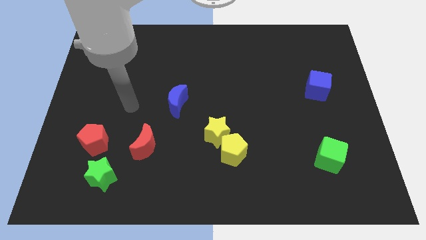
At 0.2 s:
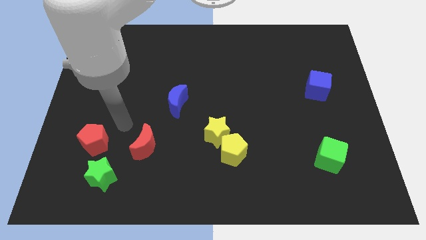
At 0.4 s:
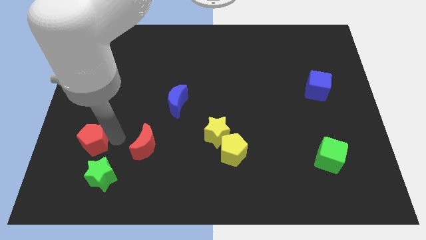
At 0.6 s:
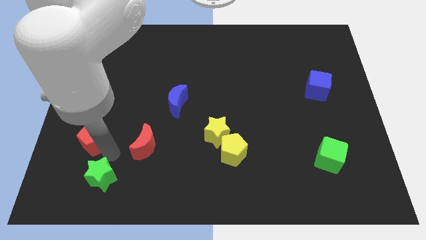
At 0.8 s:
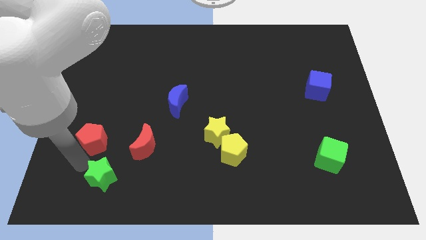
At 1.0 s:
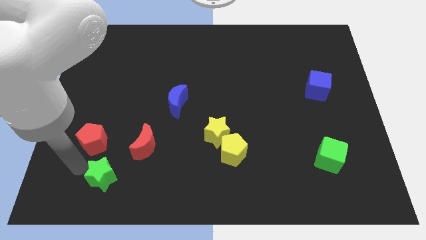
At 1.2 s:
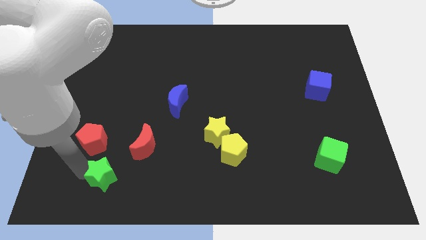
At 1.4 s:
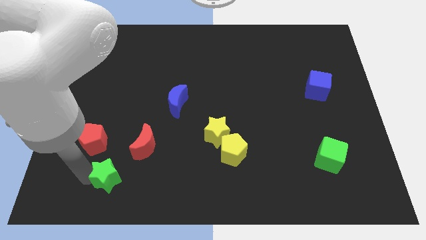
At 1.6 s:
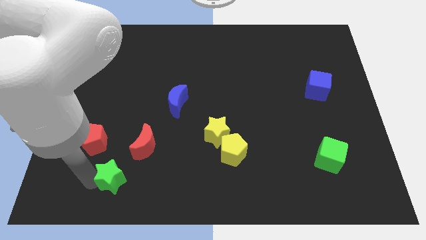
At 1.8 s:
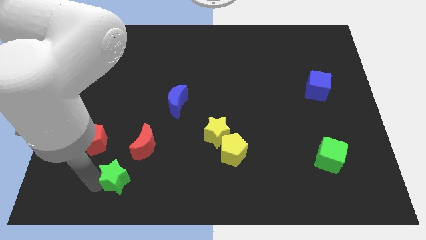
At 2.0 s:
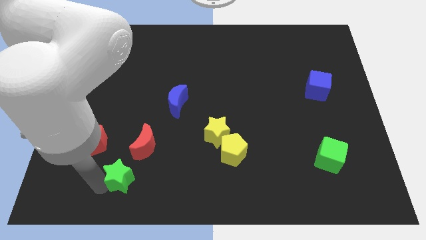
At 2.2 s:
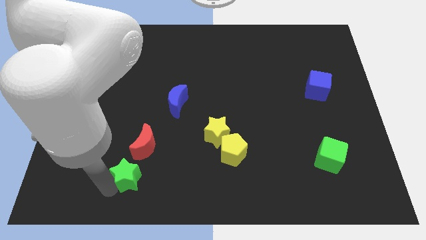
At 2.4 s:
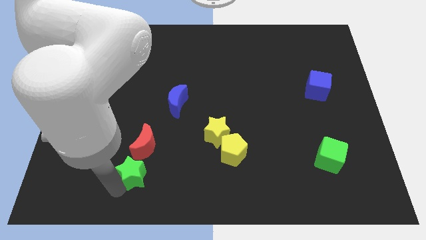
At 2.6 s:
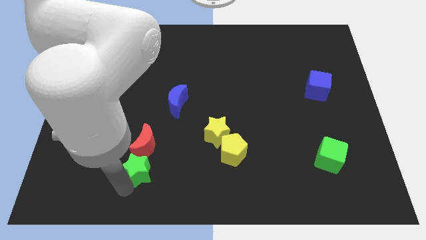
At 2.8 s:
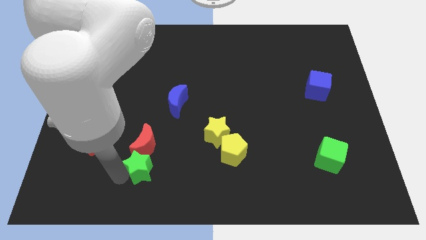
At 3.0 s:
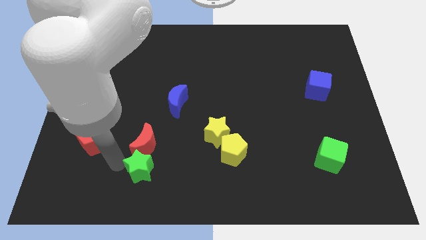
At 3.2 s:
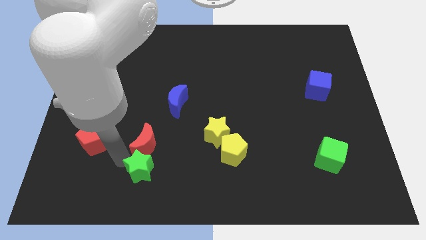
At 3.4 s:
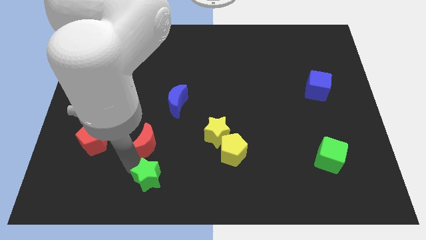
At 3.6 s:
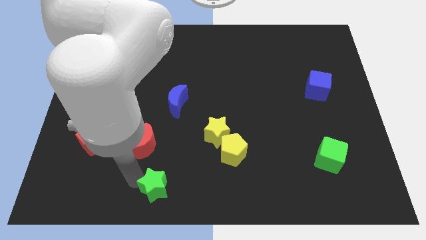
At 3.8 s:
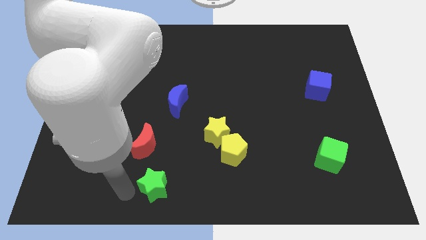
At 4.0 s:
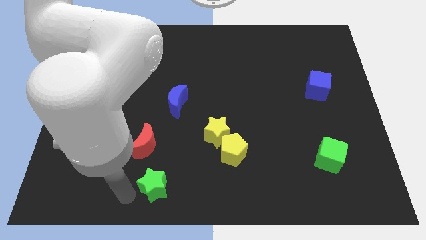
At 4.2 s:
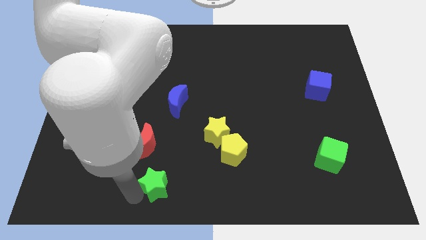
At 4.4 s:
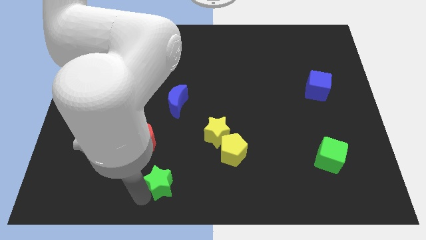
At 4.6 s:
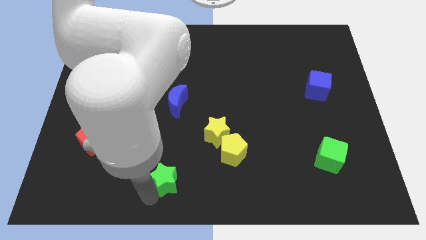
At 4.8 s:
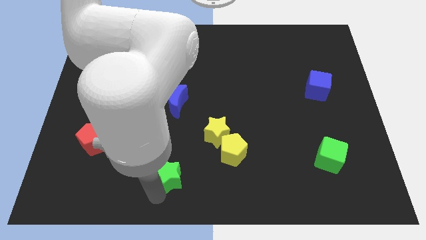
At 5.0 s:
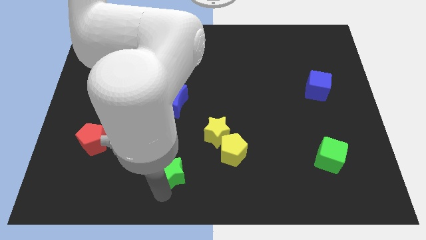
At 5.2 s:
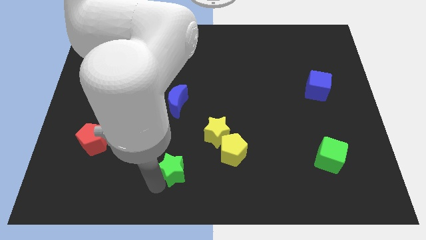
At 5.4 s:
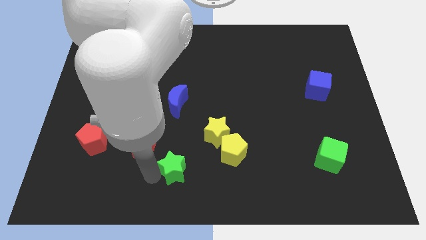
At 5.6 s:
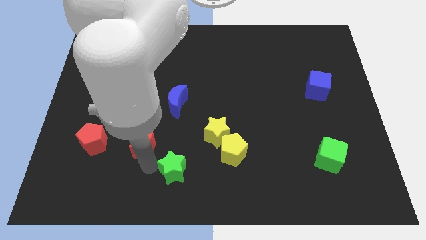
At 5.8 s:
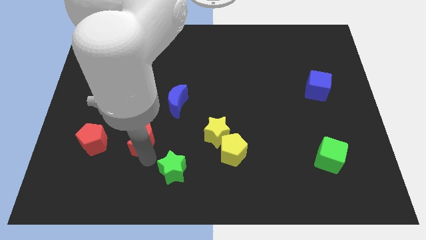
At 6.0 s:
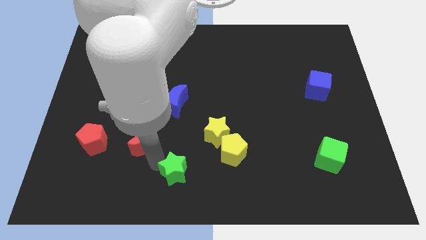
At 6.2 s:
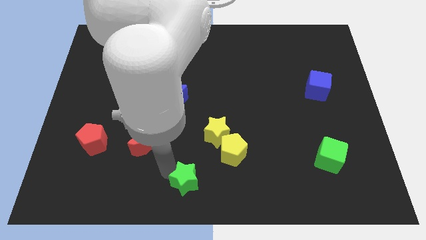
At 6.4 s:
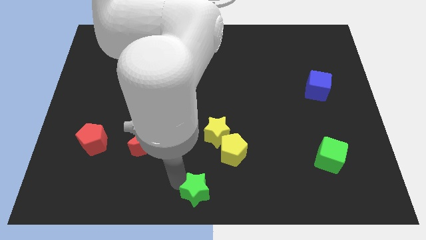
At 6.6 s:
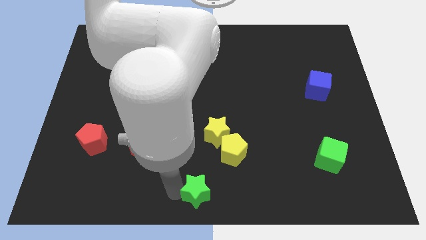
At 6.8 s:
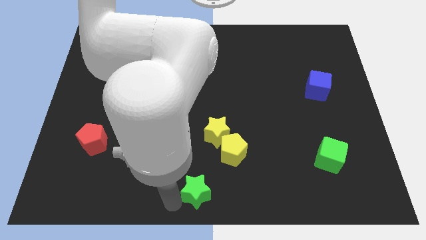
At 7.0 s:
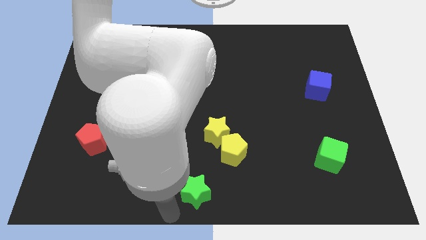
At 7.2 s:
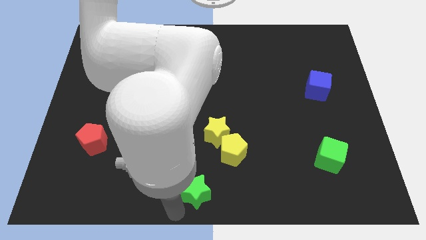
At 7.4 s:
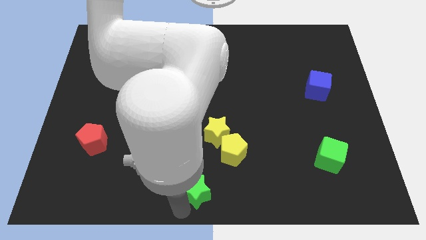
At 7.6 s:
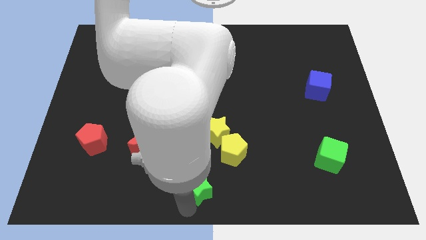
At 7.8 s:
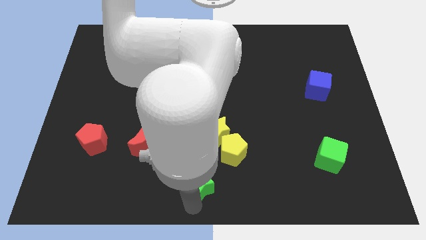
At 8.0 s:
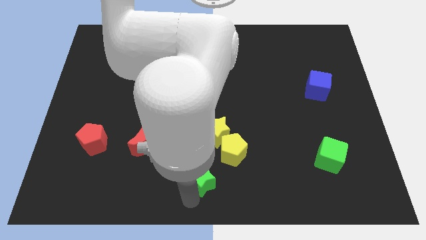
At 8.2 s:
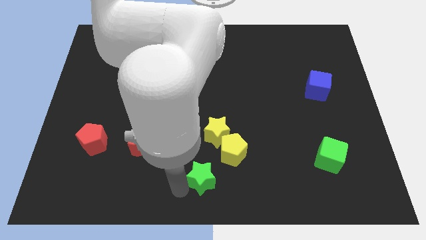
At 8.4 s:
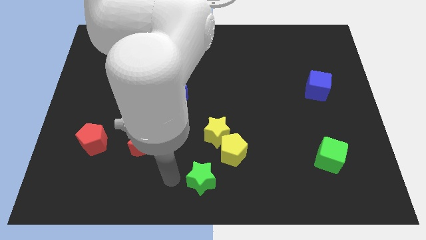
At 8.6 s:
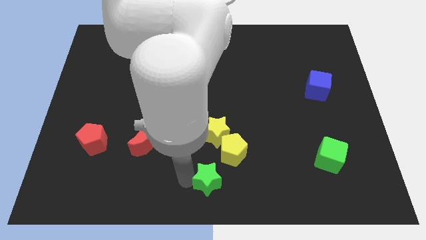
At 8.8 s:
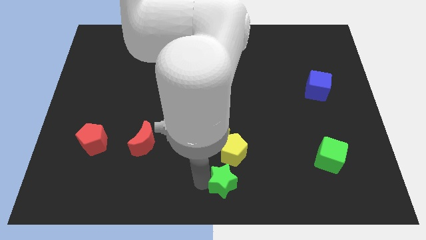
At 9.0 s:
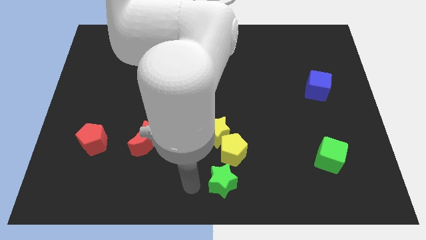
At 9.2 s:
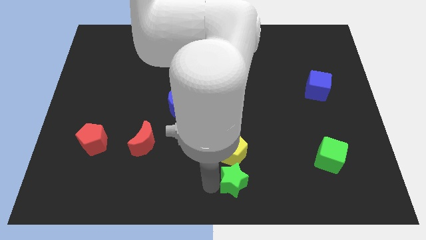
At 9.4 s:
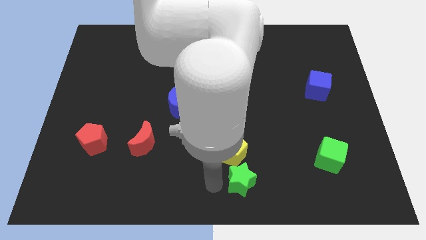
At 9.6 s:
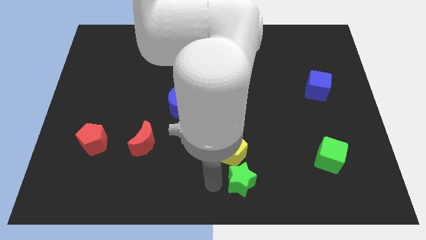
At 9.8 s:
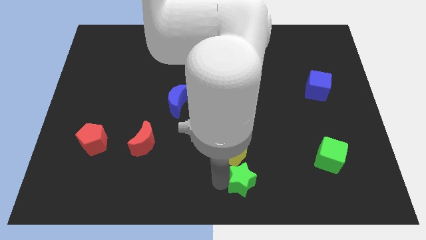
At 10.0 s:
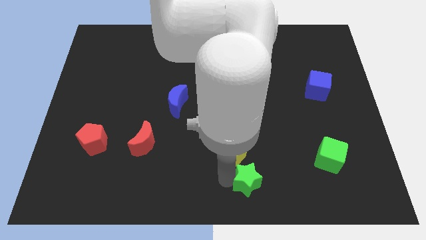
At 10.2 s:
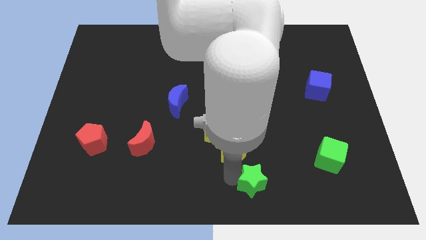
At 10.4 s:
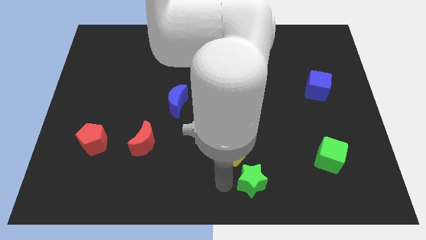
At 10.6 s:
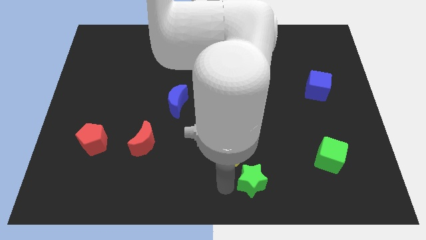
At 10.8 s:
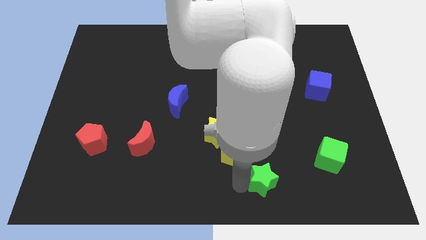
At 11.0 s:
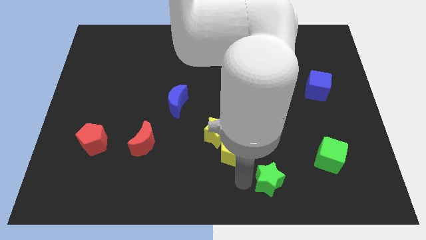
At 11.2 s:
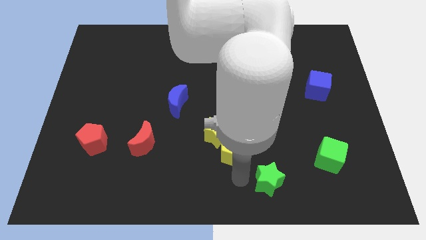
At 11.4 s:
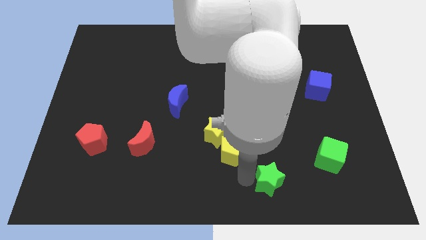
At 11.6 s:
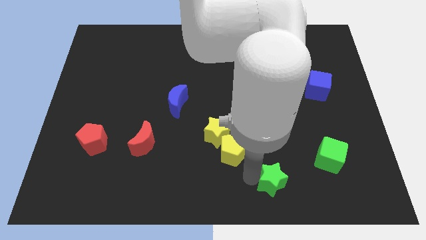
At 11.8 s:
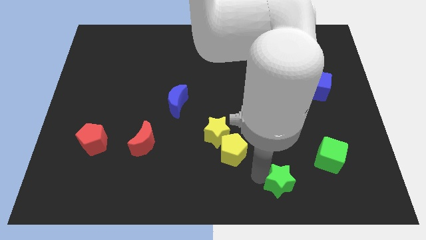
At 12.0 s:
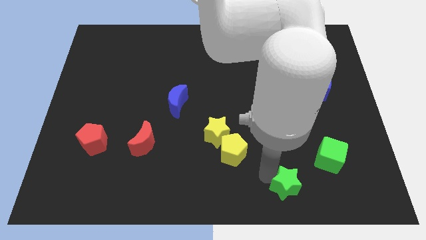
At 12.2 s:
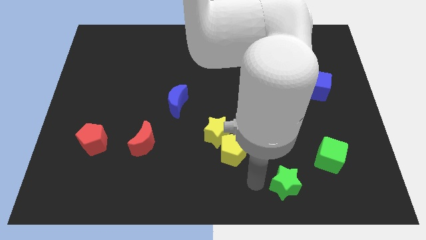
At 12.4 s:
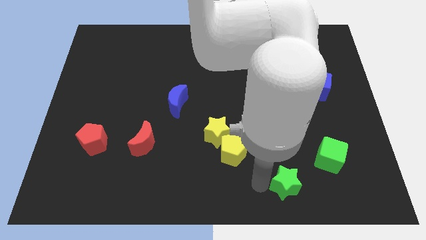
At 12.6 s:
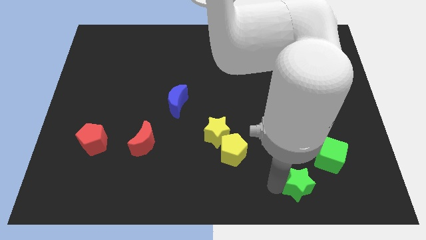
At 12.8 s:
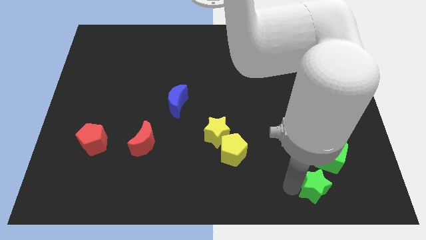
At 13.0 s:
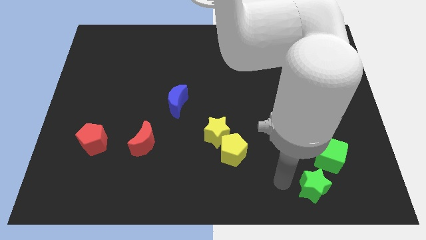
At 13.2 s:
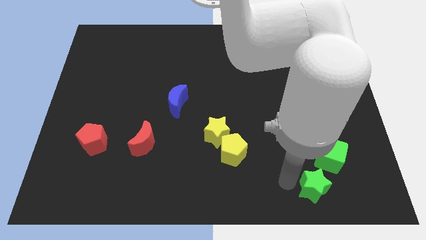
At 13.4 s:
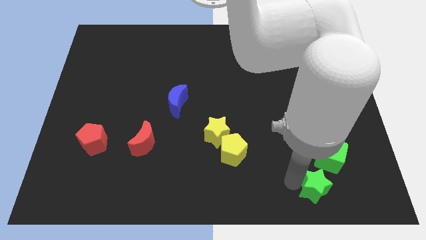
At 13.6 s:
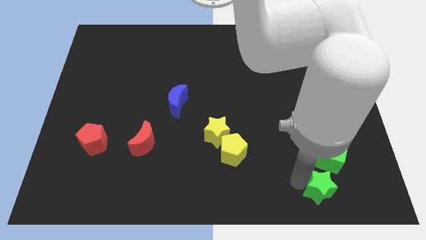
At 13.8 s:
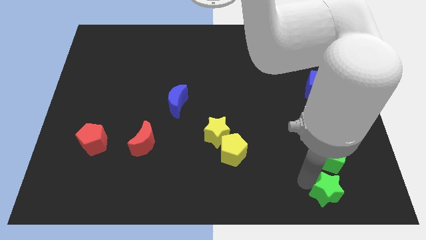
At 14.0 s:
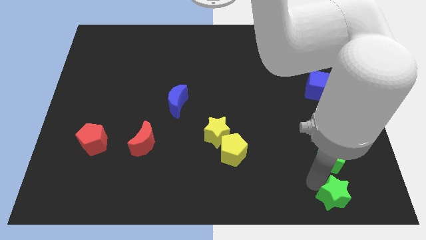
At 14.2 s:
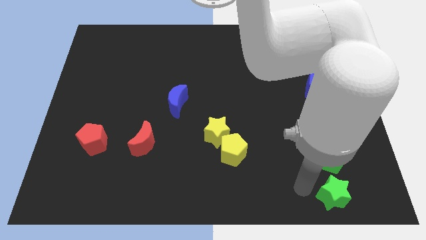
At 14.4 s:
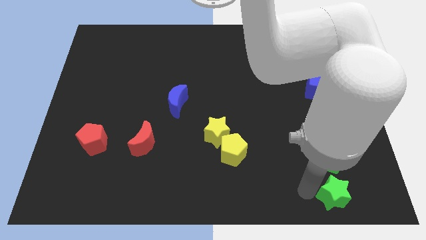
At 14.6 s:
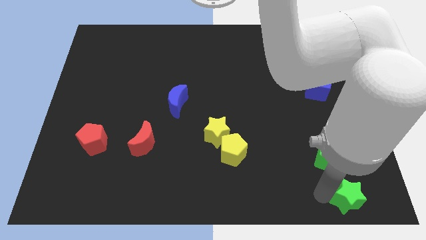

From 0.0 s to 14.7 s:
slide the green star to the bottom right
